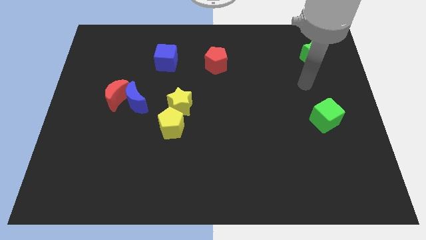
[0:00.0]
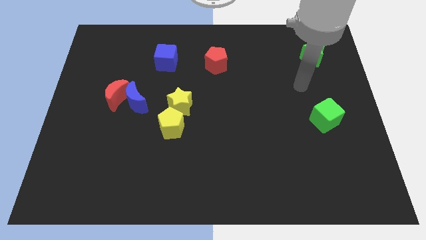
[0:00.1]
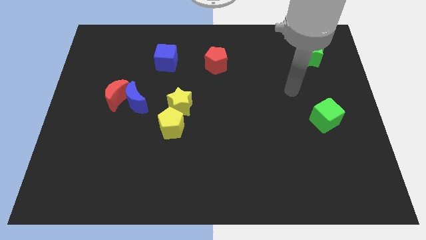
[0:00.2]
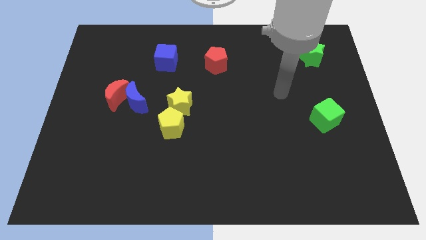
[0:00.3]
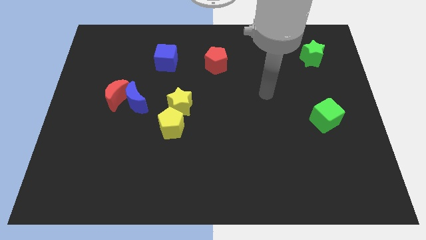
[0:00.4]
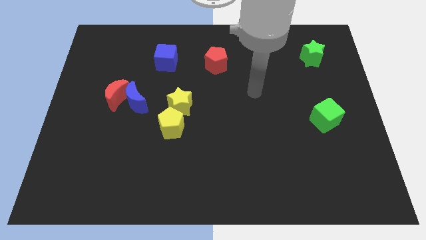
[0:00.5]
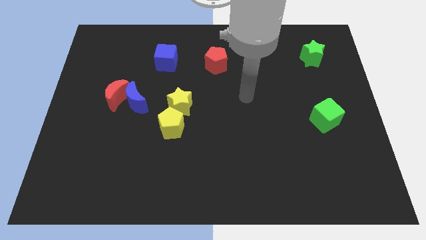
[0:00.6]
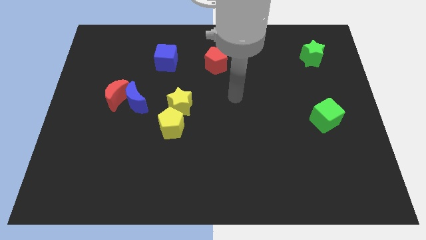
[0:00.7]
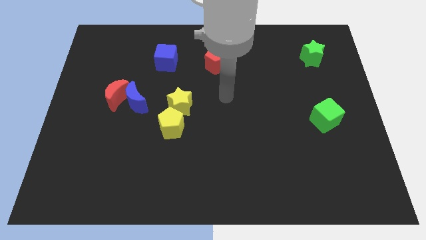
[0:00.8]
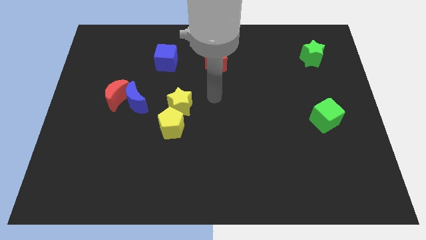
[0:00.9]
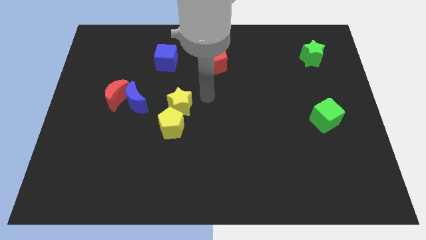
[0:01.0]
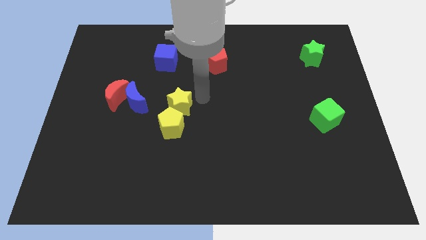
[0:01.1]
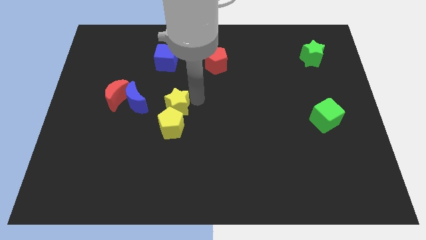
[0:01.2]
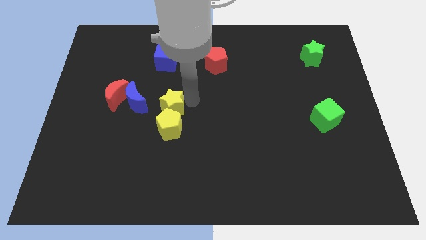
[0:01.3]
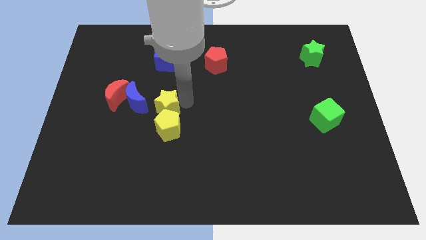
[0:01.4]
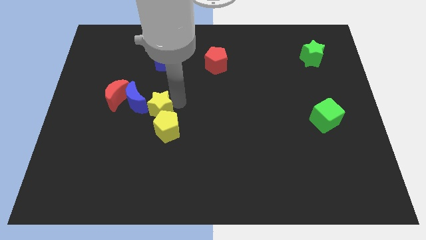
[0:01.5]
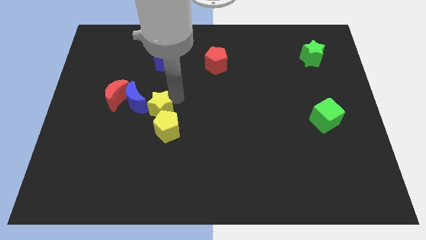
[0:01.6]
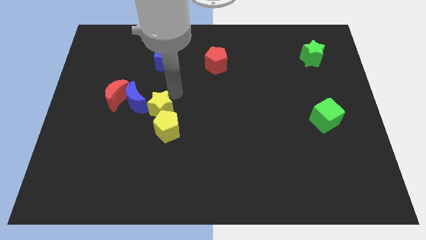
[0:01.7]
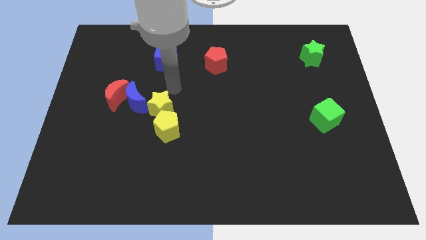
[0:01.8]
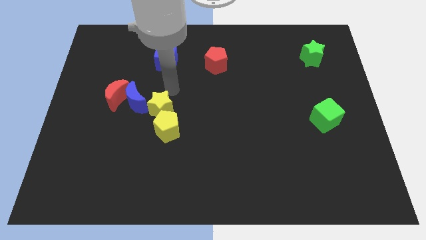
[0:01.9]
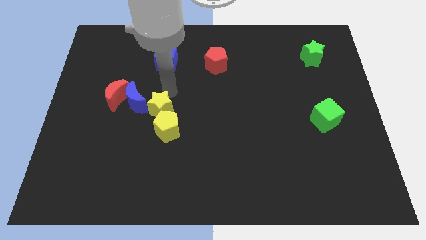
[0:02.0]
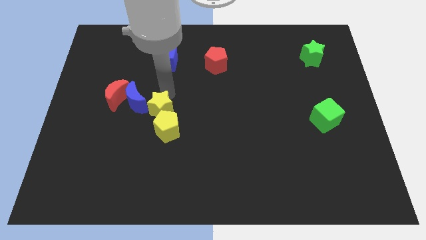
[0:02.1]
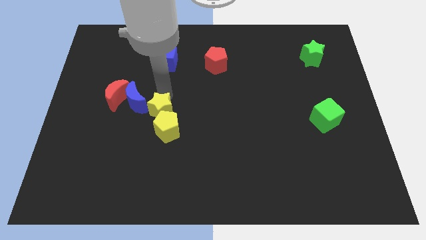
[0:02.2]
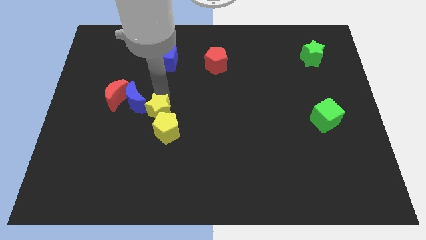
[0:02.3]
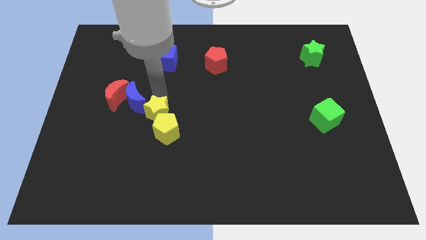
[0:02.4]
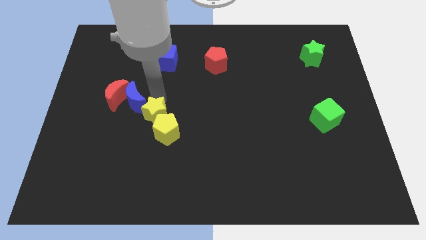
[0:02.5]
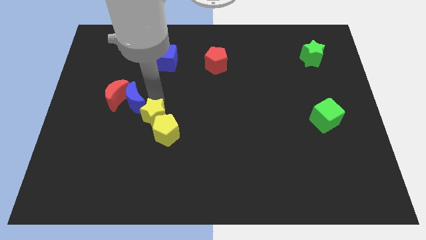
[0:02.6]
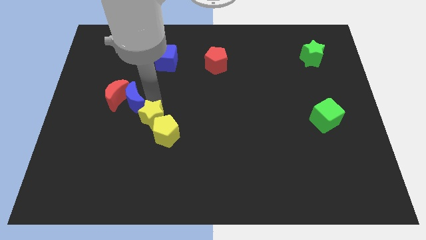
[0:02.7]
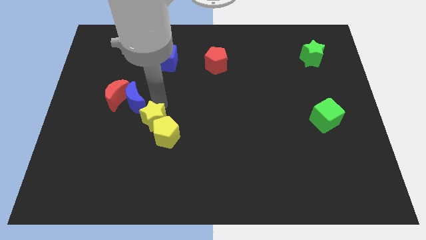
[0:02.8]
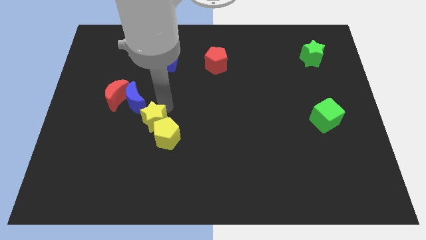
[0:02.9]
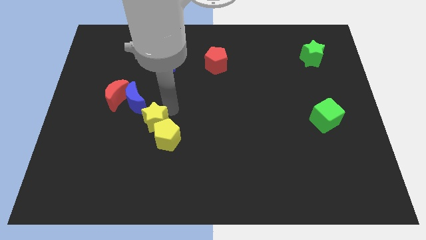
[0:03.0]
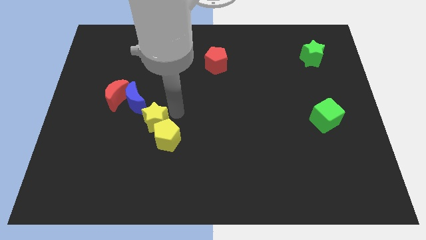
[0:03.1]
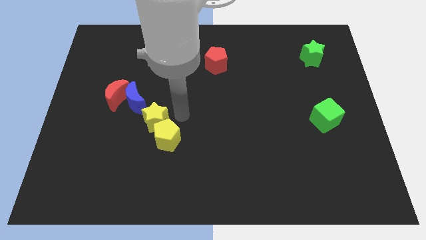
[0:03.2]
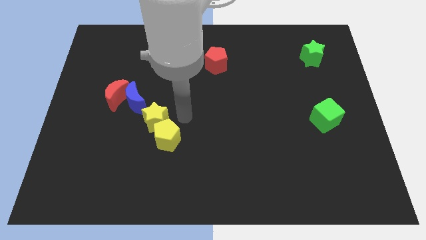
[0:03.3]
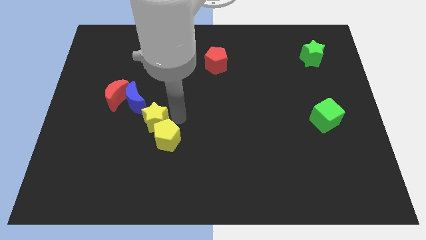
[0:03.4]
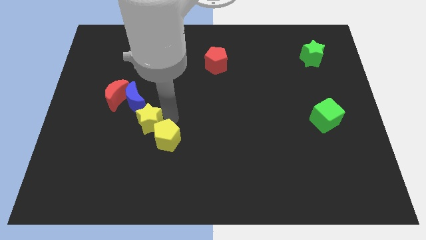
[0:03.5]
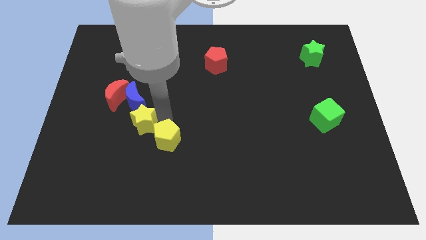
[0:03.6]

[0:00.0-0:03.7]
push the yellow star a bit left

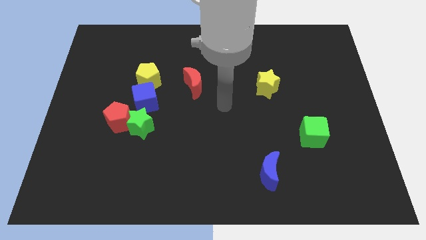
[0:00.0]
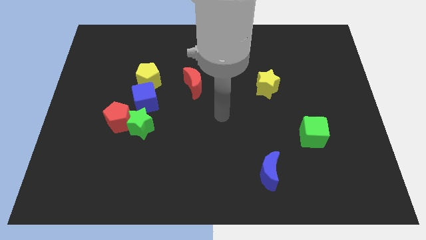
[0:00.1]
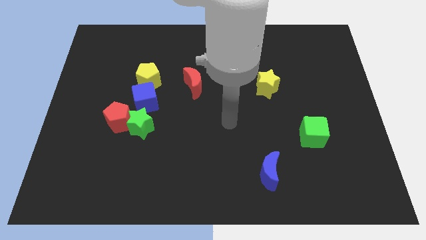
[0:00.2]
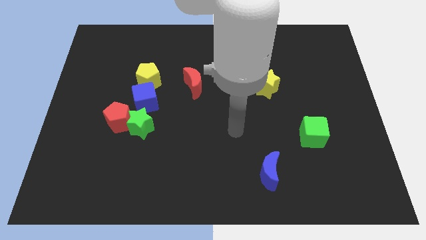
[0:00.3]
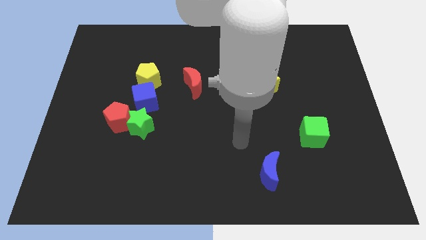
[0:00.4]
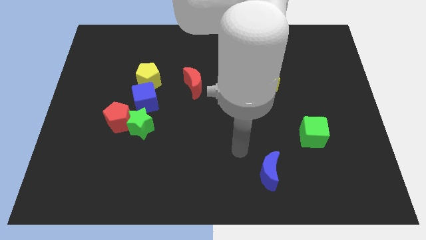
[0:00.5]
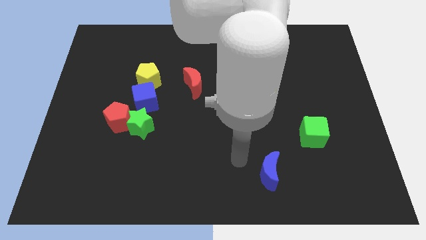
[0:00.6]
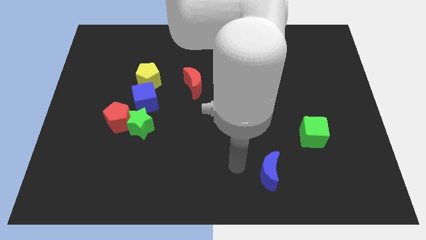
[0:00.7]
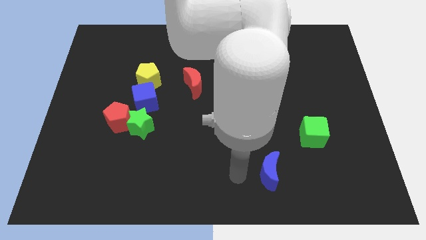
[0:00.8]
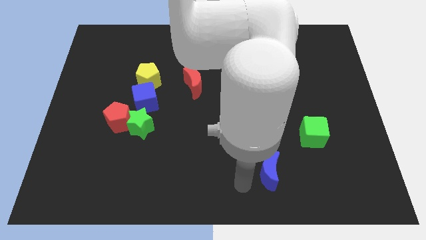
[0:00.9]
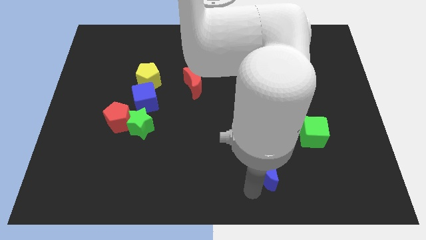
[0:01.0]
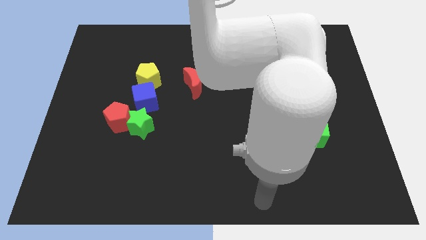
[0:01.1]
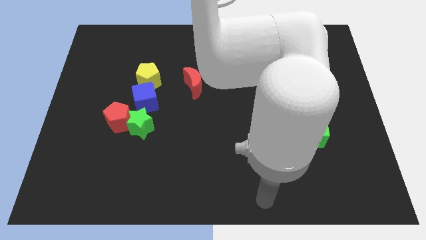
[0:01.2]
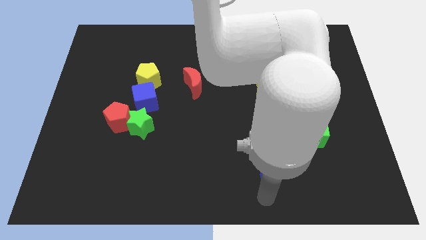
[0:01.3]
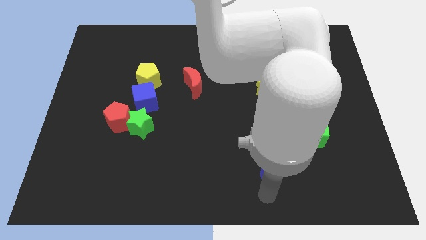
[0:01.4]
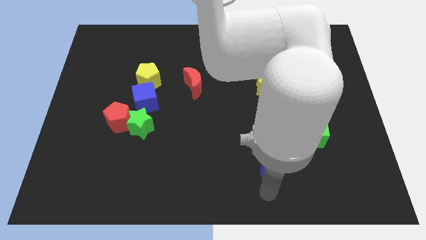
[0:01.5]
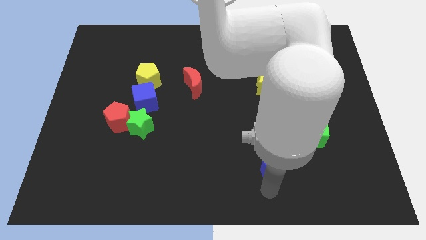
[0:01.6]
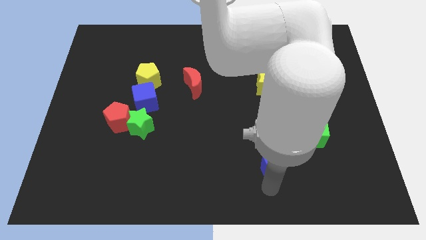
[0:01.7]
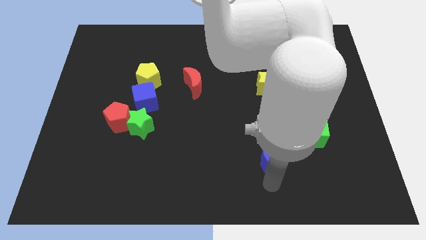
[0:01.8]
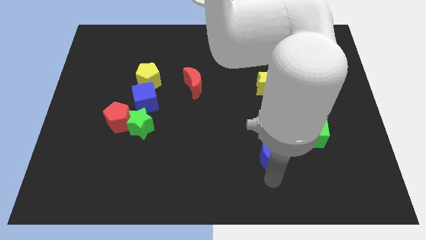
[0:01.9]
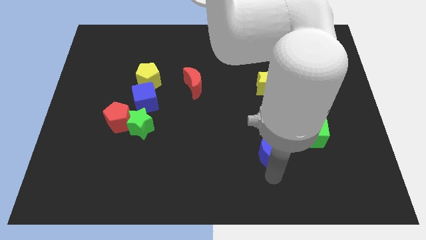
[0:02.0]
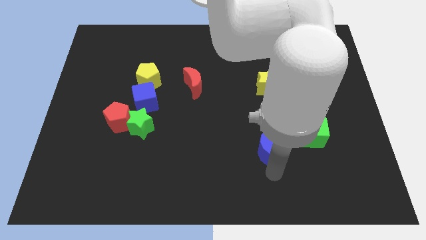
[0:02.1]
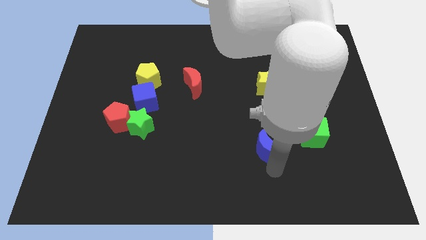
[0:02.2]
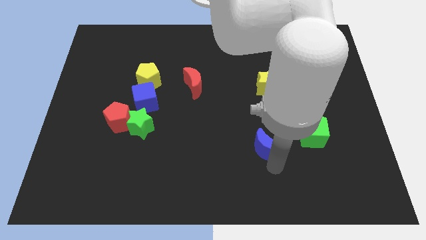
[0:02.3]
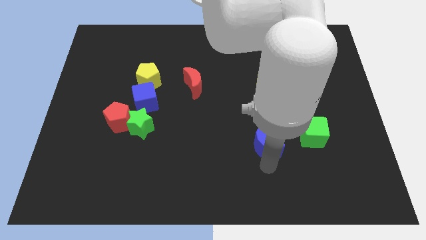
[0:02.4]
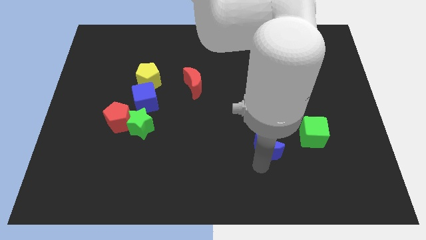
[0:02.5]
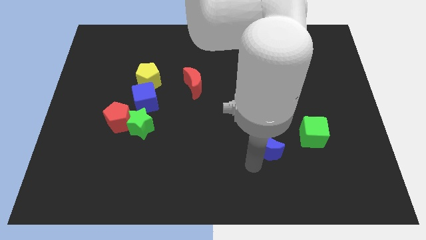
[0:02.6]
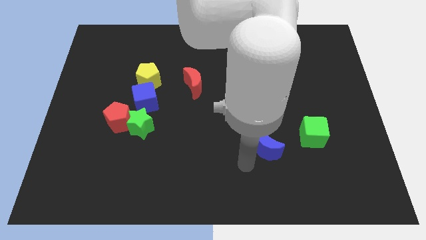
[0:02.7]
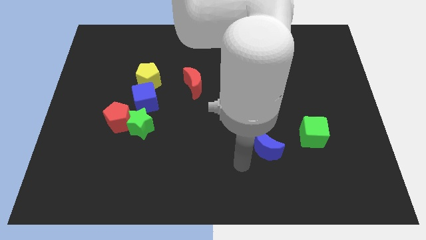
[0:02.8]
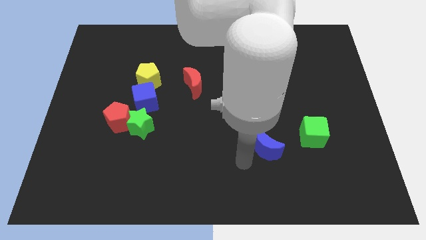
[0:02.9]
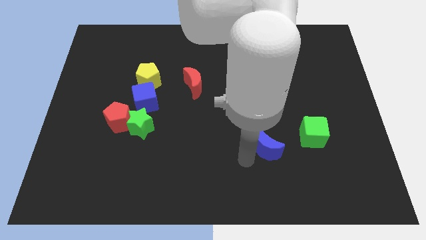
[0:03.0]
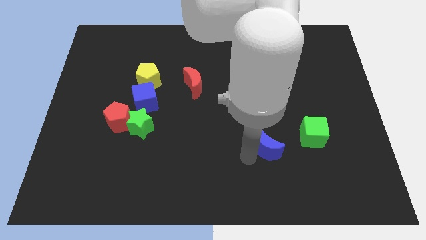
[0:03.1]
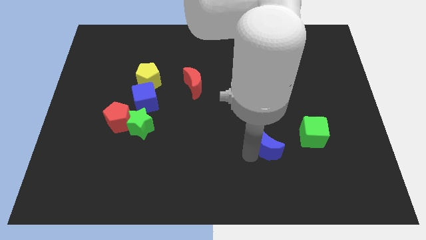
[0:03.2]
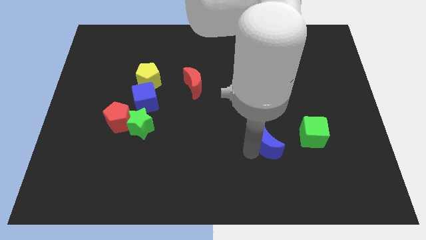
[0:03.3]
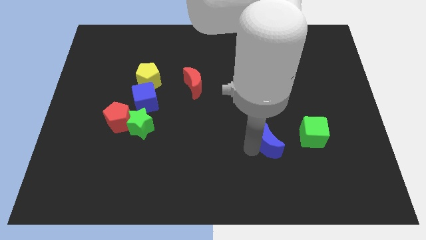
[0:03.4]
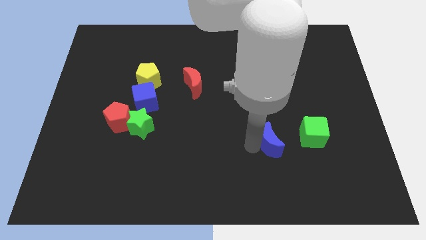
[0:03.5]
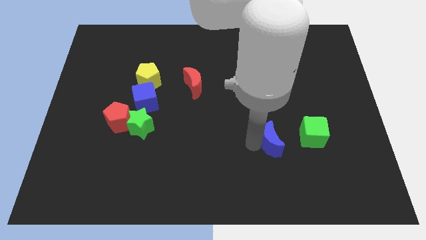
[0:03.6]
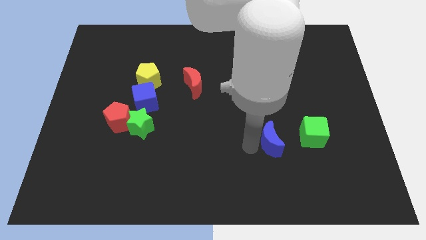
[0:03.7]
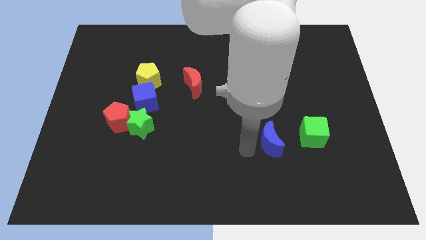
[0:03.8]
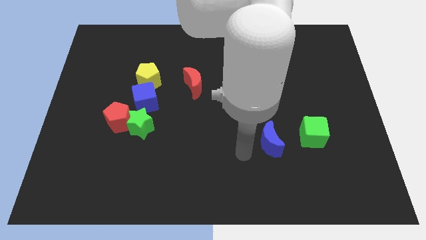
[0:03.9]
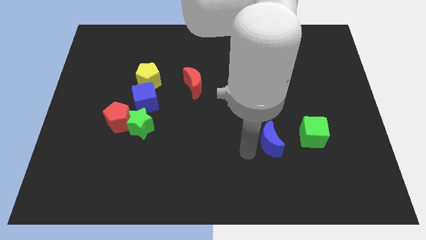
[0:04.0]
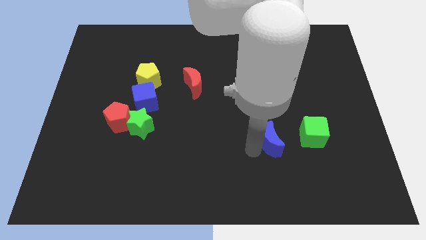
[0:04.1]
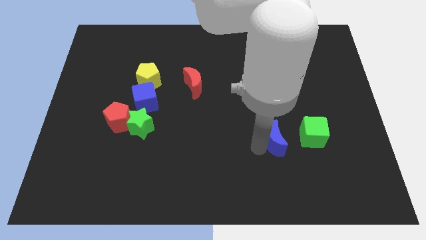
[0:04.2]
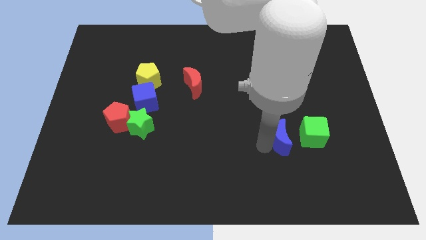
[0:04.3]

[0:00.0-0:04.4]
push the blue moon upwards and right diagonally slightly
